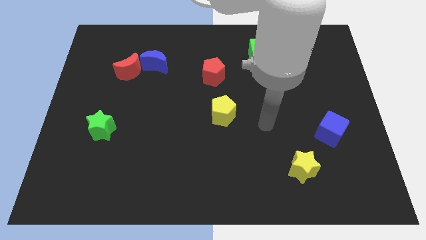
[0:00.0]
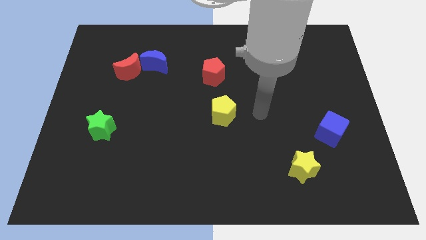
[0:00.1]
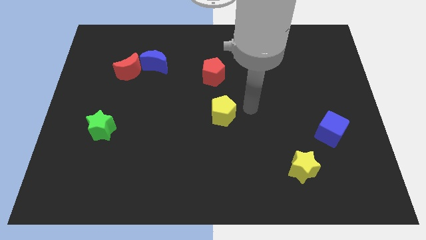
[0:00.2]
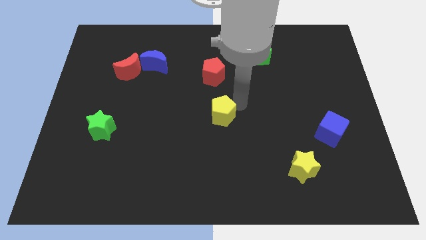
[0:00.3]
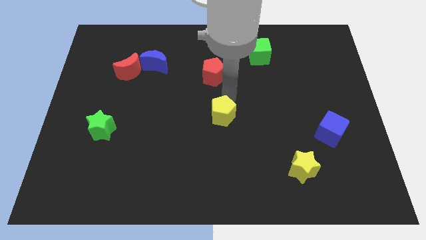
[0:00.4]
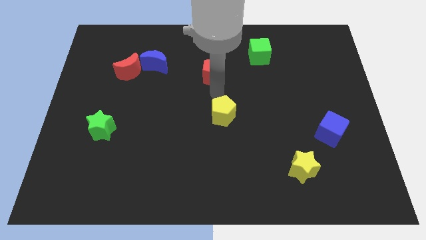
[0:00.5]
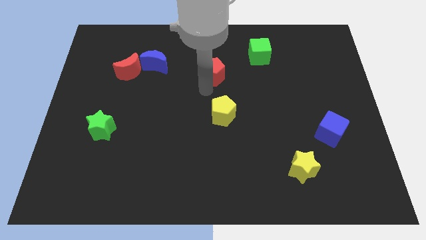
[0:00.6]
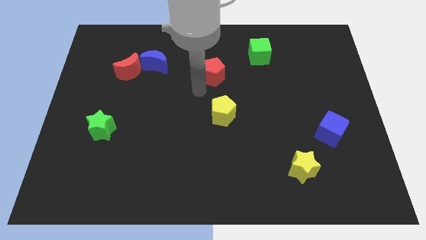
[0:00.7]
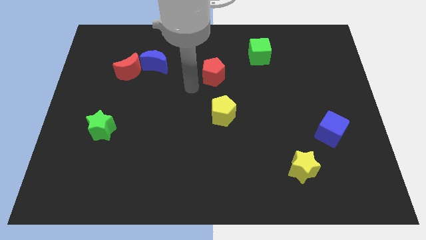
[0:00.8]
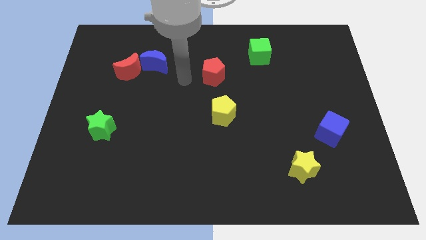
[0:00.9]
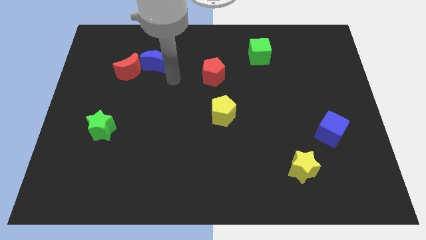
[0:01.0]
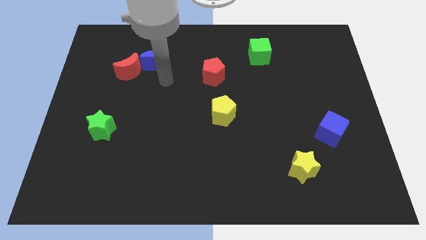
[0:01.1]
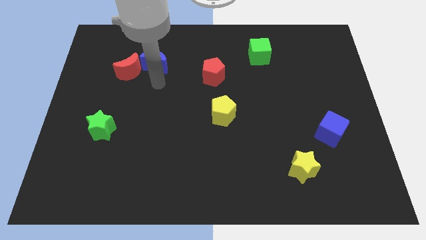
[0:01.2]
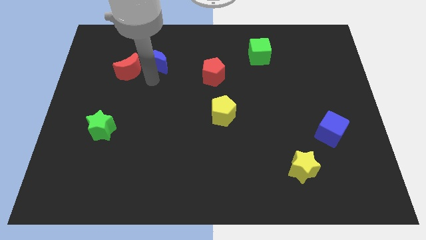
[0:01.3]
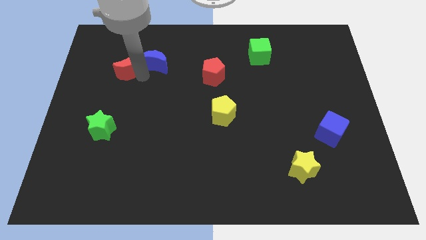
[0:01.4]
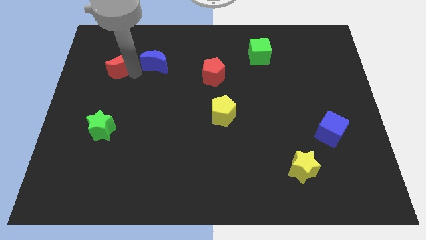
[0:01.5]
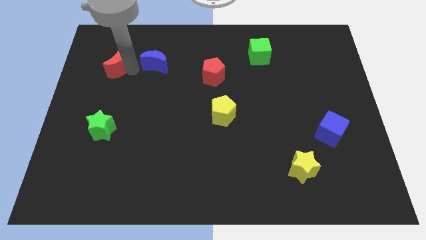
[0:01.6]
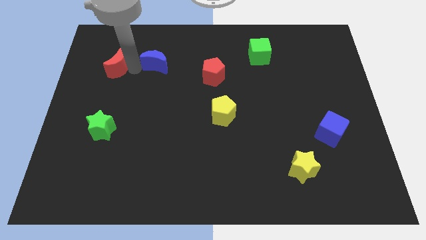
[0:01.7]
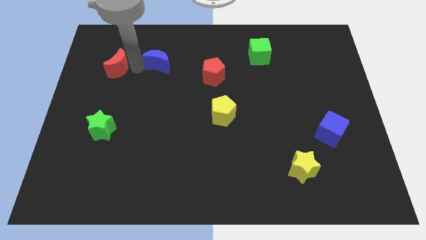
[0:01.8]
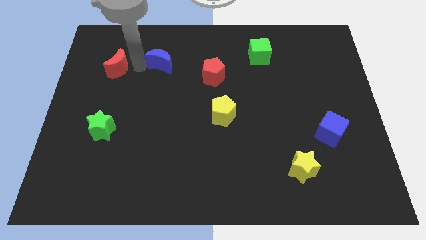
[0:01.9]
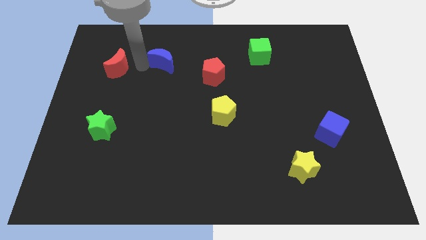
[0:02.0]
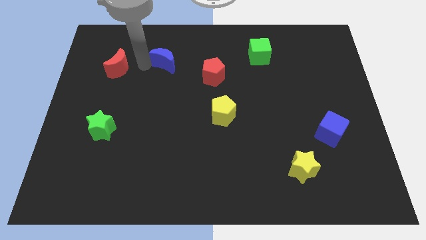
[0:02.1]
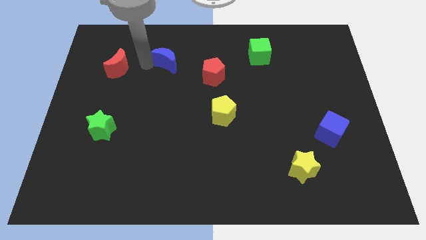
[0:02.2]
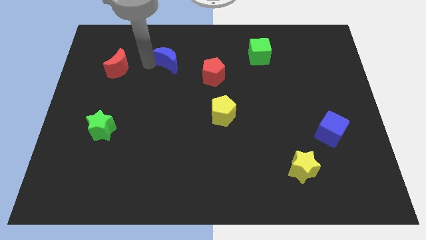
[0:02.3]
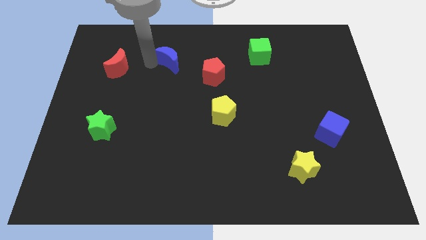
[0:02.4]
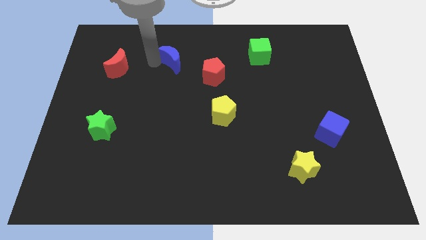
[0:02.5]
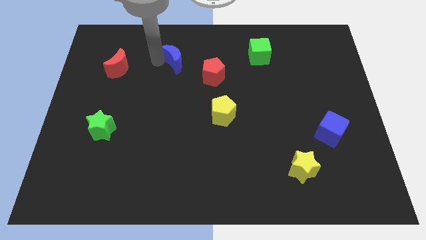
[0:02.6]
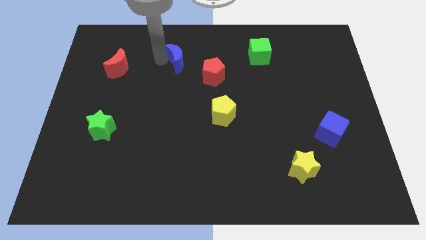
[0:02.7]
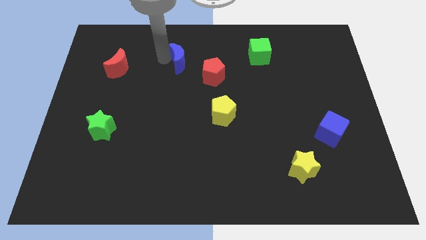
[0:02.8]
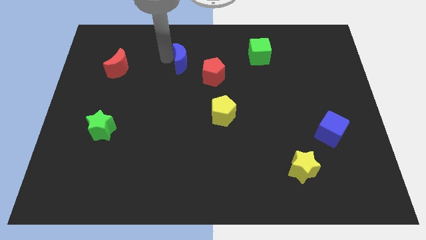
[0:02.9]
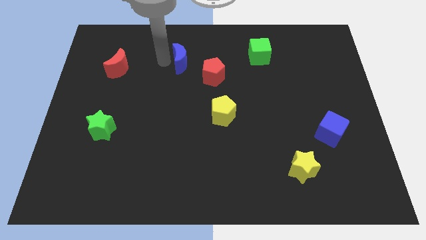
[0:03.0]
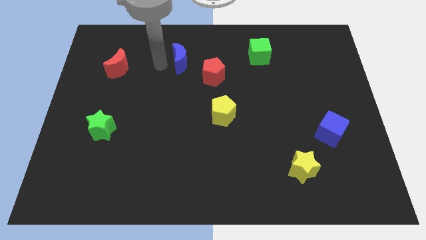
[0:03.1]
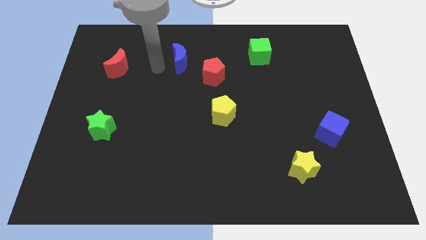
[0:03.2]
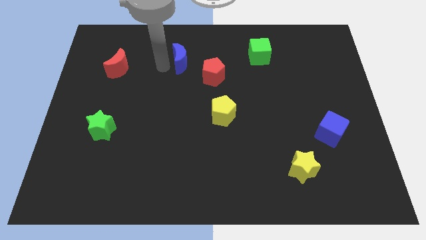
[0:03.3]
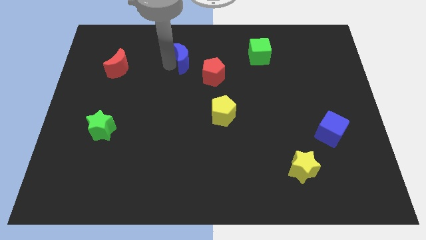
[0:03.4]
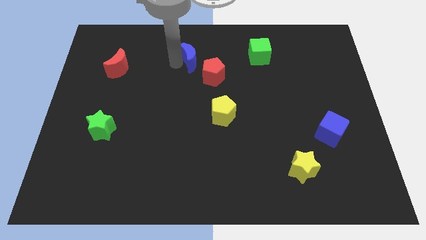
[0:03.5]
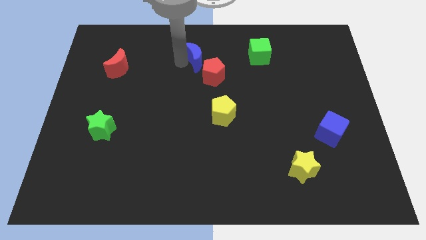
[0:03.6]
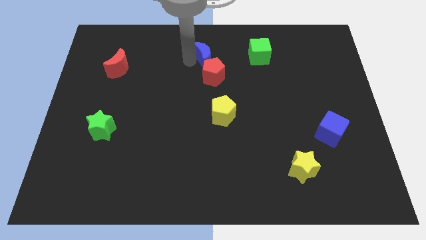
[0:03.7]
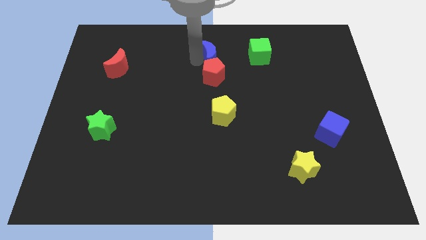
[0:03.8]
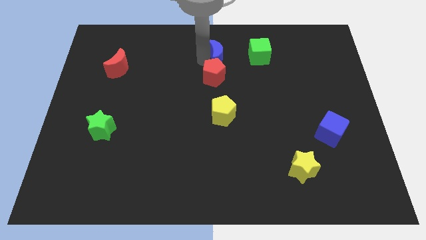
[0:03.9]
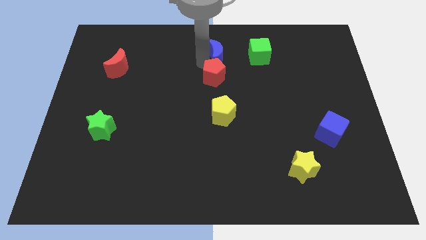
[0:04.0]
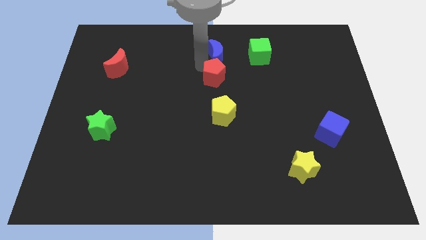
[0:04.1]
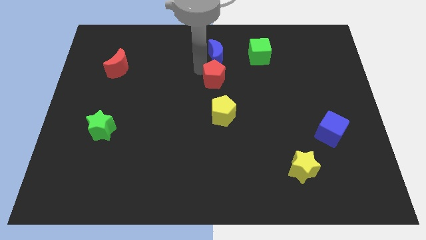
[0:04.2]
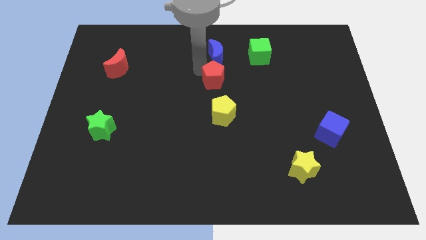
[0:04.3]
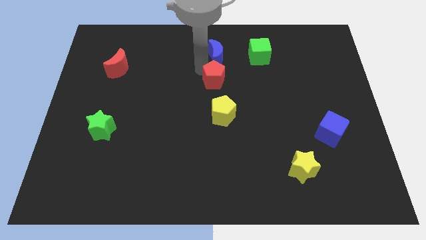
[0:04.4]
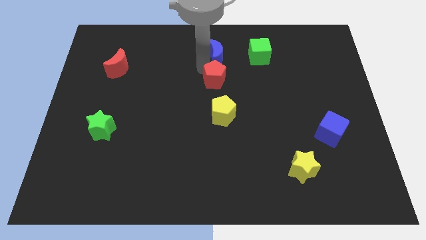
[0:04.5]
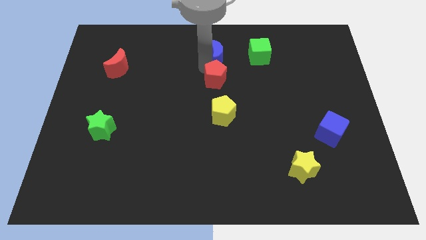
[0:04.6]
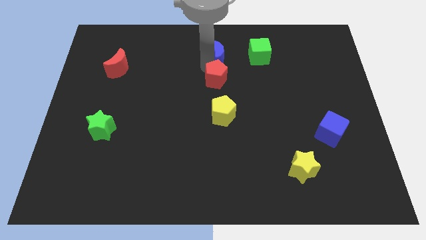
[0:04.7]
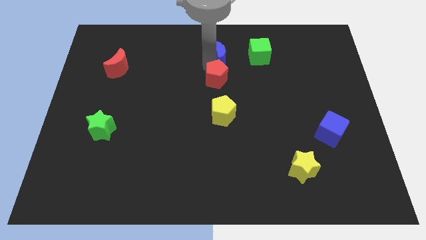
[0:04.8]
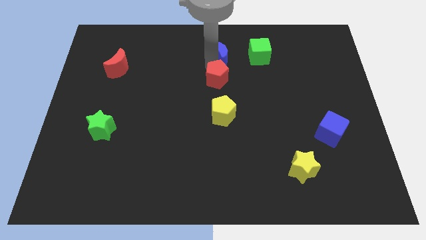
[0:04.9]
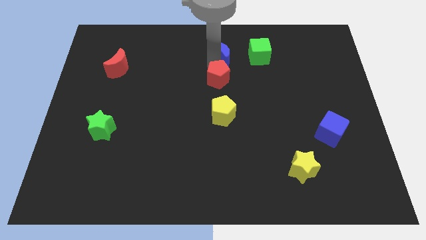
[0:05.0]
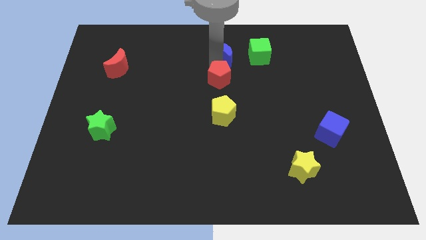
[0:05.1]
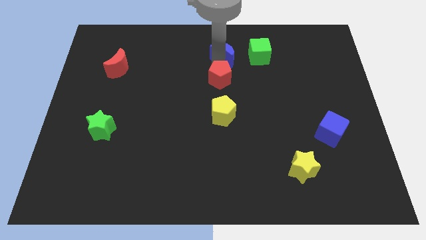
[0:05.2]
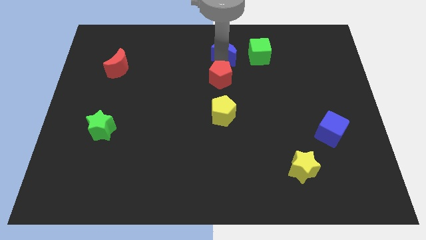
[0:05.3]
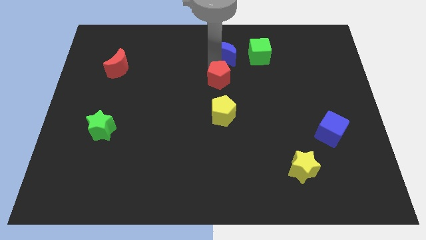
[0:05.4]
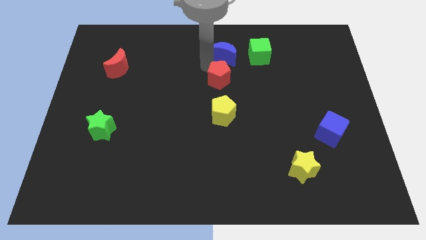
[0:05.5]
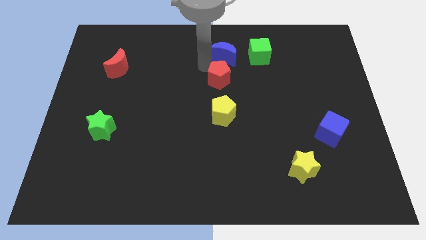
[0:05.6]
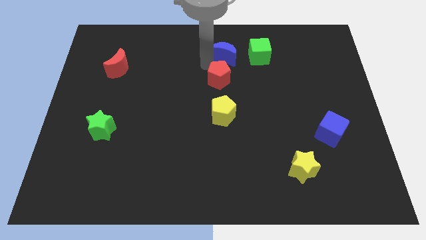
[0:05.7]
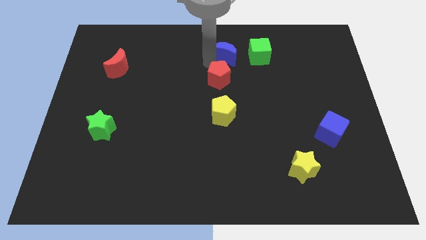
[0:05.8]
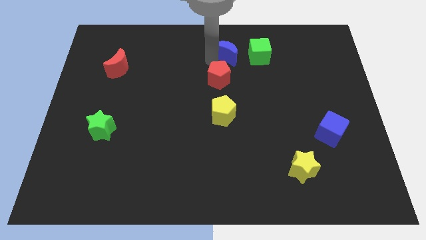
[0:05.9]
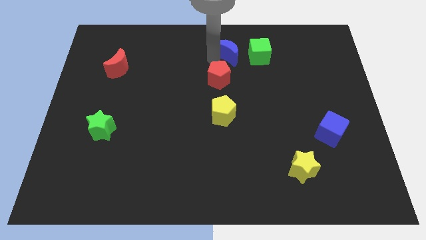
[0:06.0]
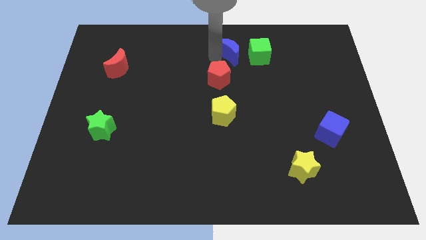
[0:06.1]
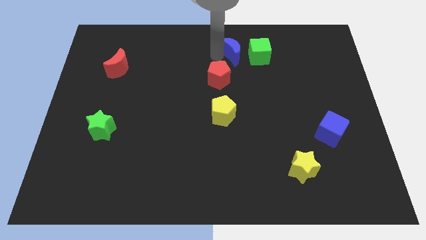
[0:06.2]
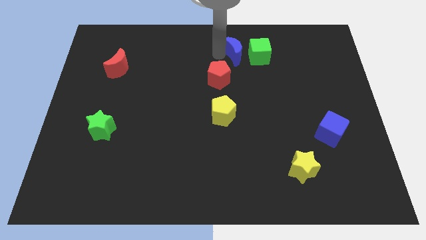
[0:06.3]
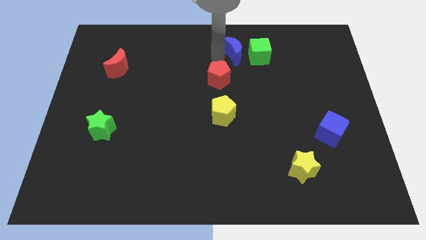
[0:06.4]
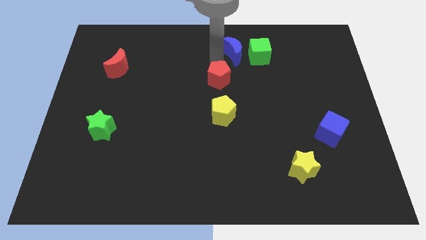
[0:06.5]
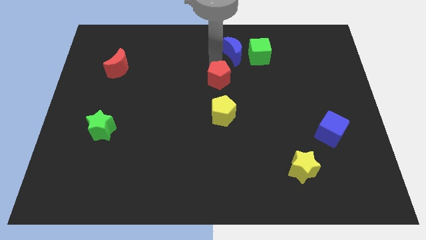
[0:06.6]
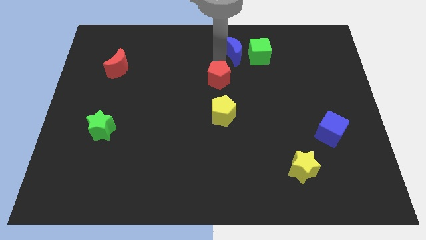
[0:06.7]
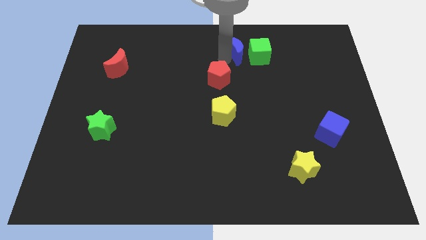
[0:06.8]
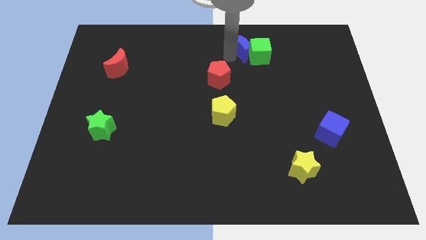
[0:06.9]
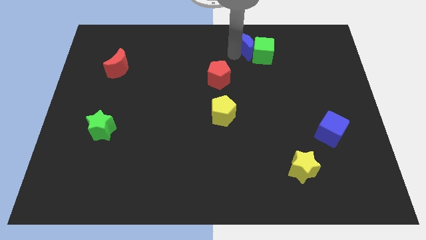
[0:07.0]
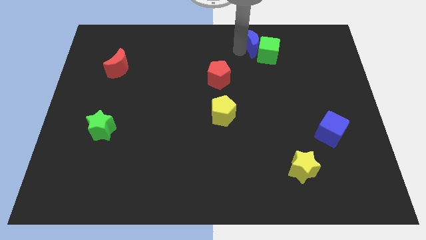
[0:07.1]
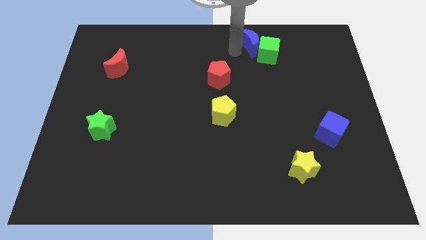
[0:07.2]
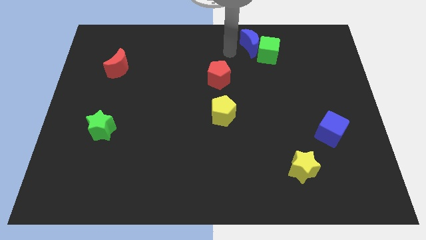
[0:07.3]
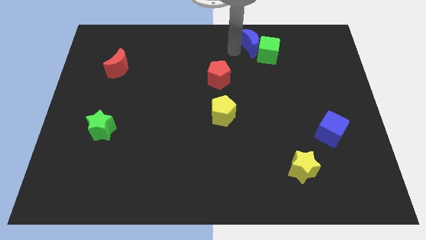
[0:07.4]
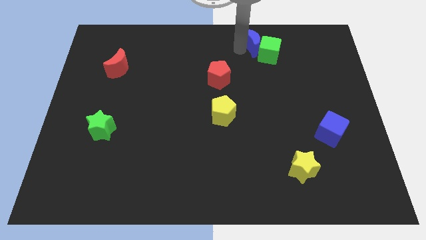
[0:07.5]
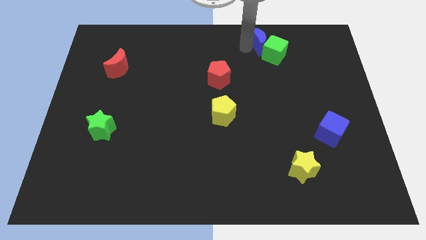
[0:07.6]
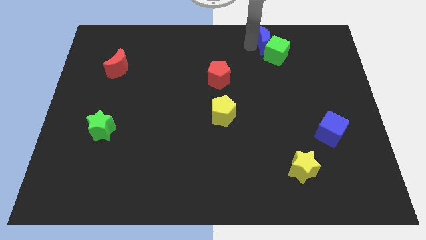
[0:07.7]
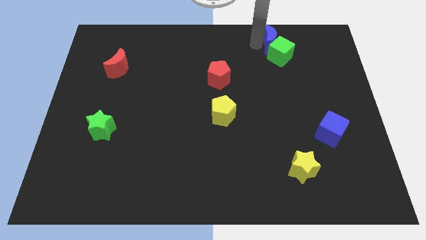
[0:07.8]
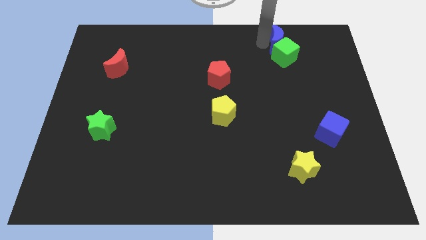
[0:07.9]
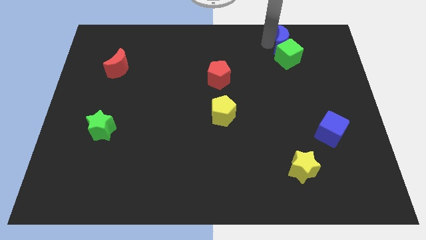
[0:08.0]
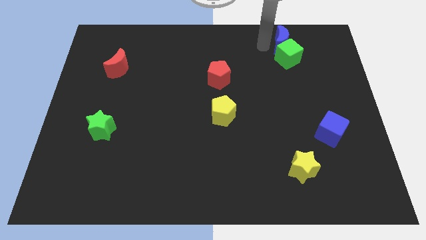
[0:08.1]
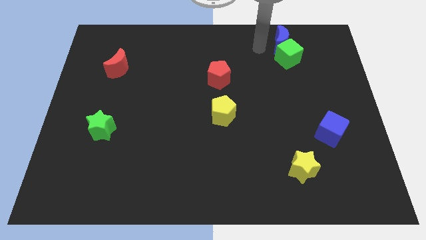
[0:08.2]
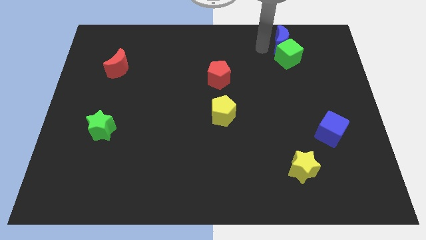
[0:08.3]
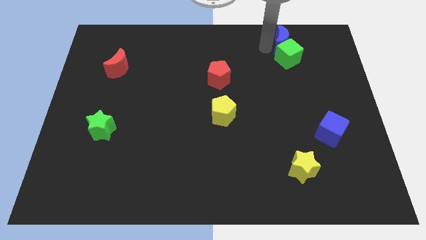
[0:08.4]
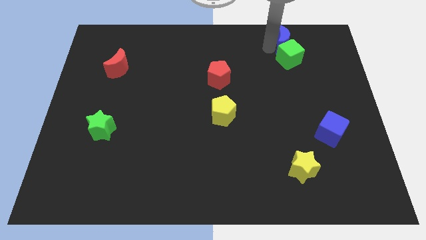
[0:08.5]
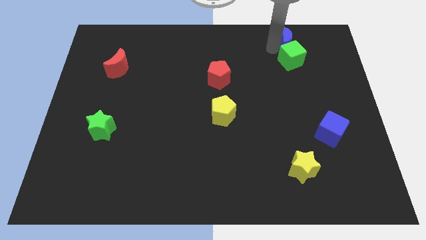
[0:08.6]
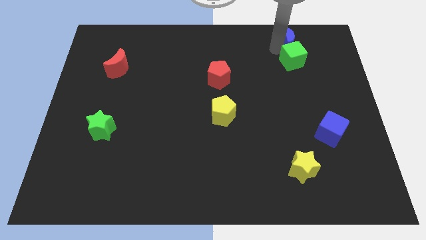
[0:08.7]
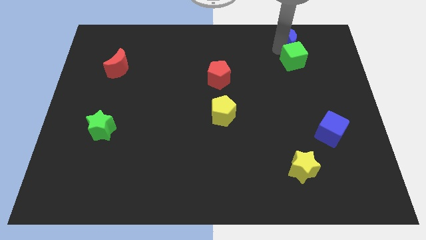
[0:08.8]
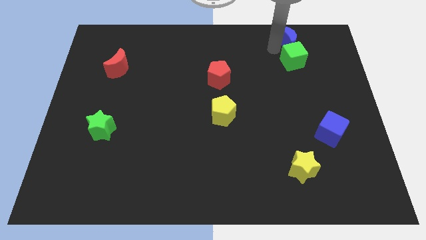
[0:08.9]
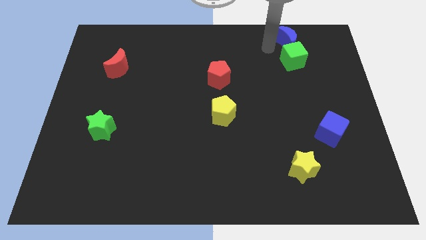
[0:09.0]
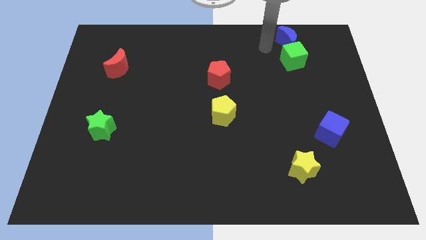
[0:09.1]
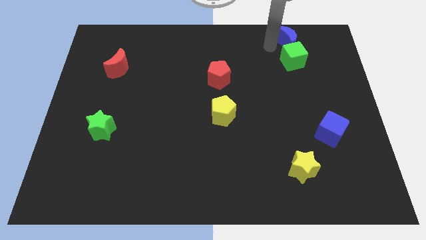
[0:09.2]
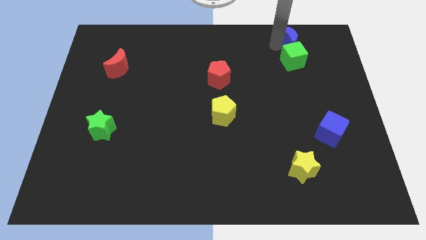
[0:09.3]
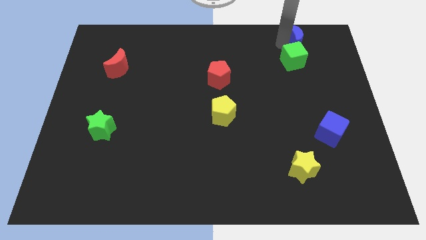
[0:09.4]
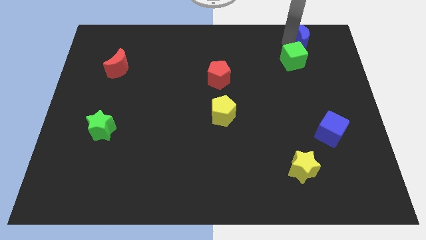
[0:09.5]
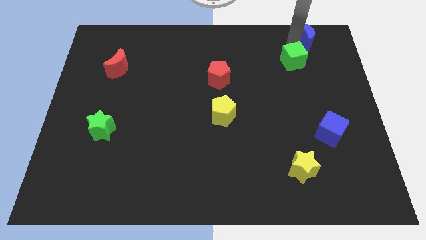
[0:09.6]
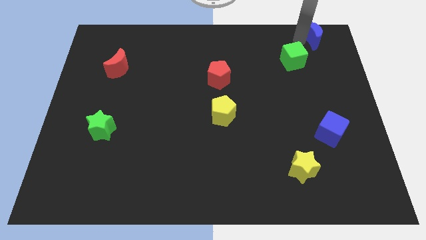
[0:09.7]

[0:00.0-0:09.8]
push the blue moon to the top right
